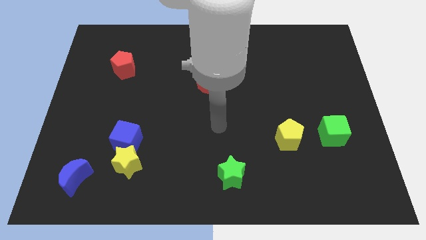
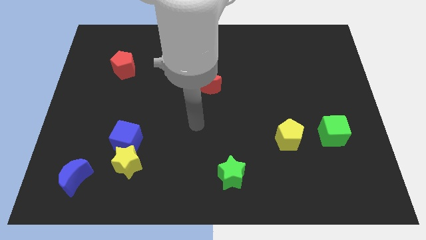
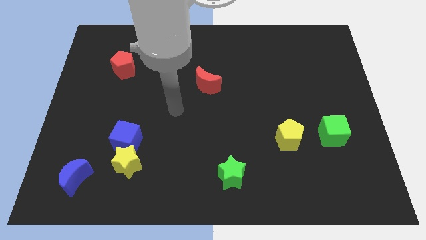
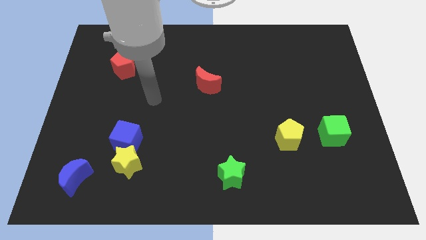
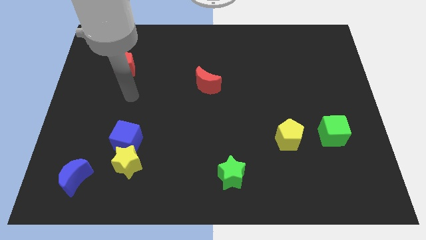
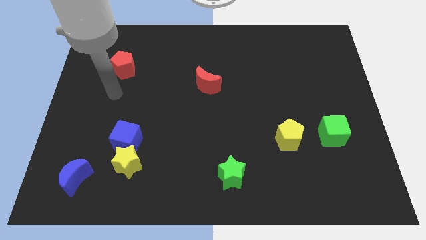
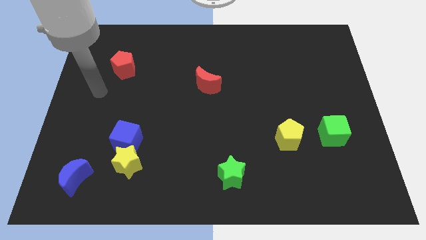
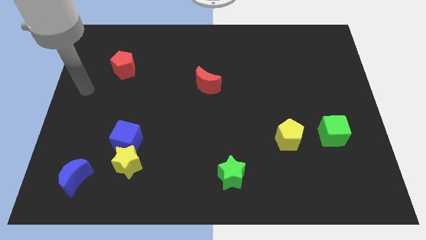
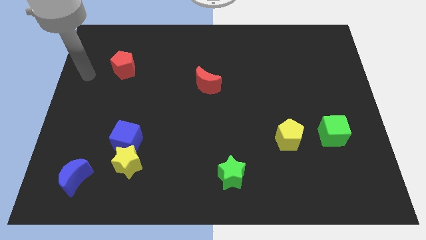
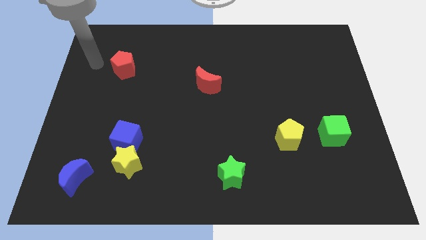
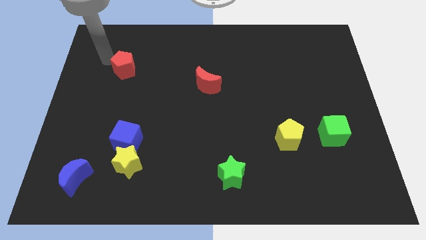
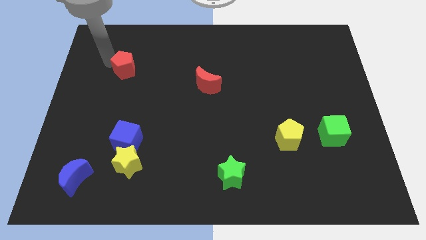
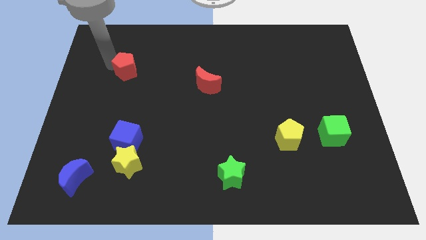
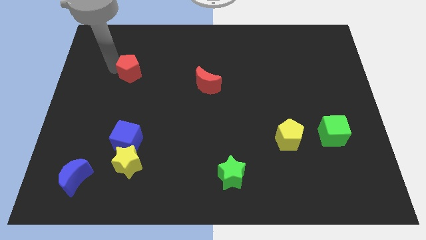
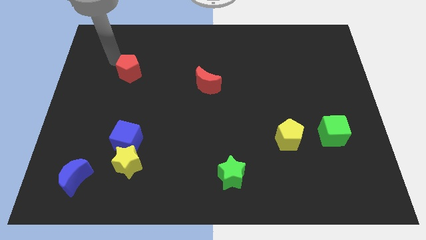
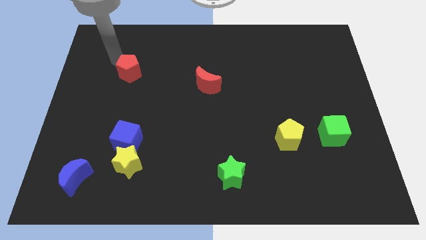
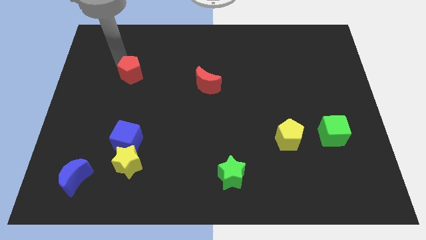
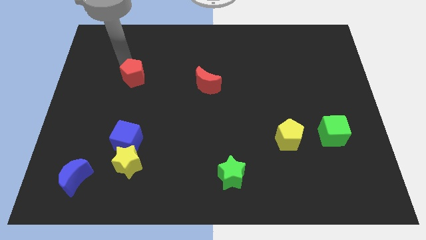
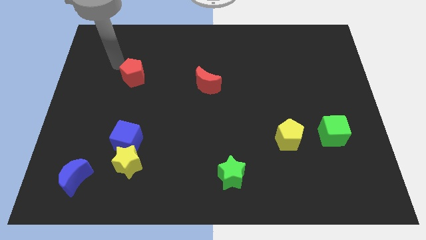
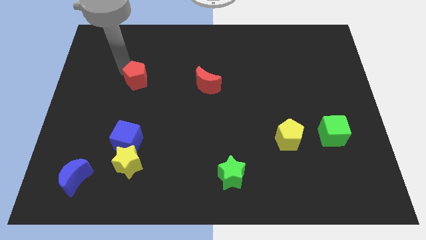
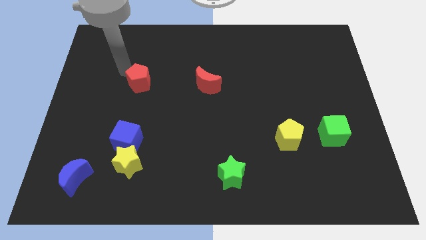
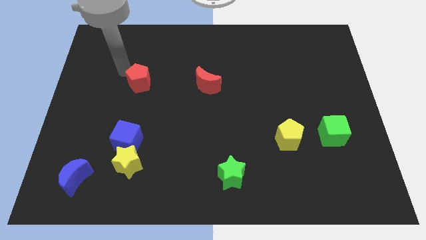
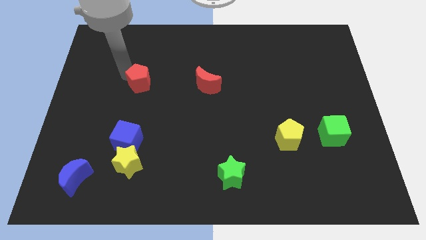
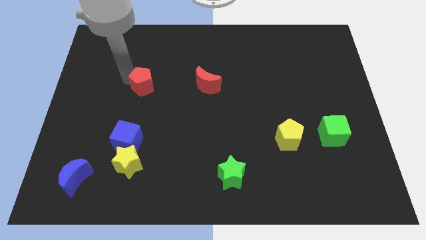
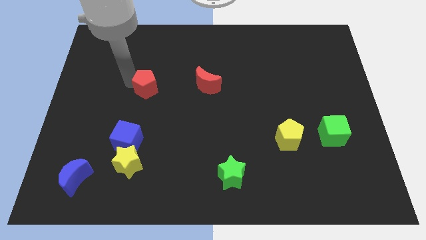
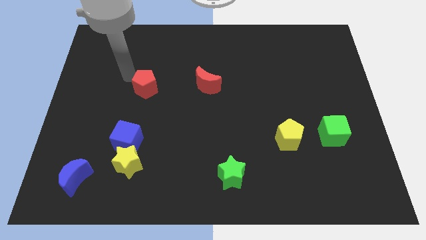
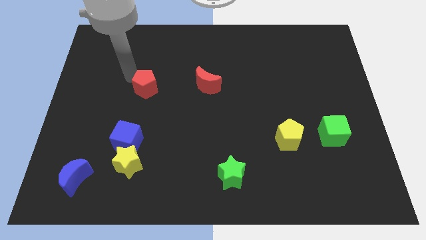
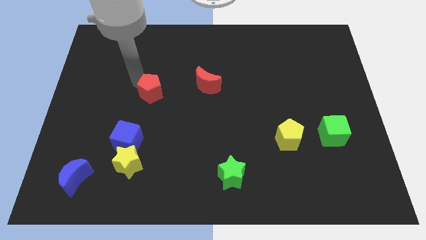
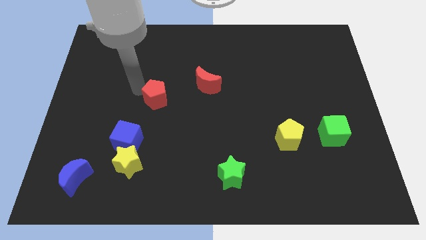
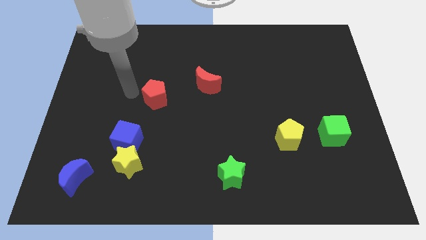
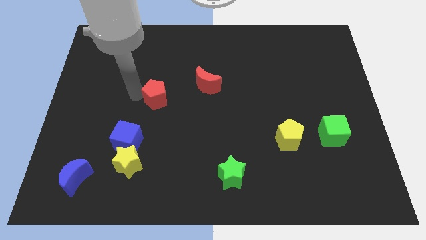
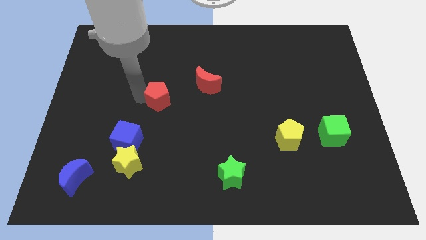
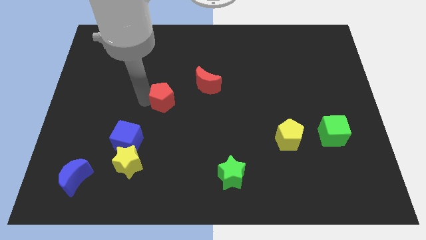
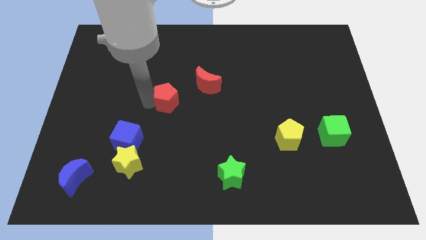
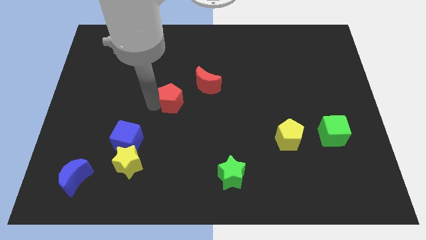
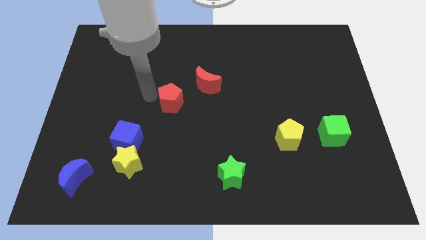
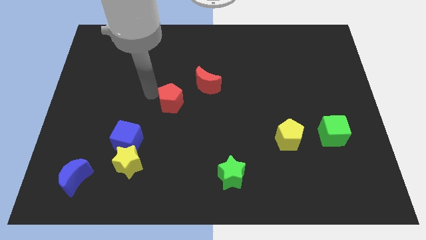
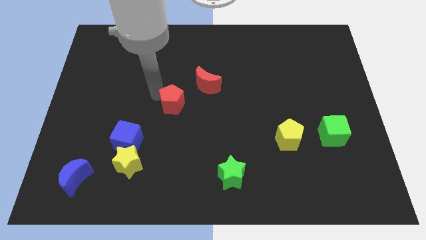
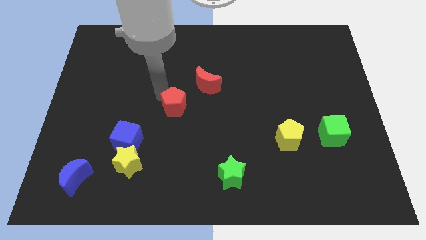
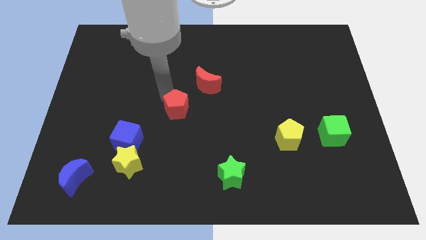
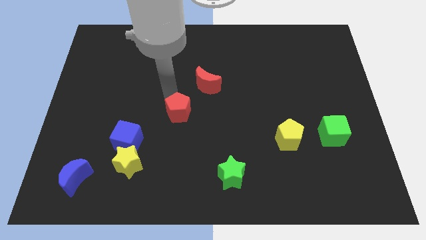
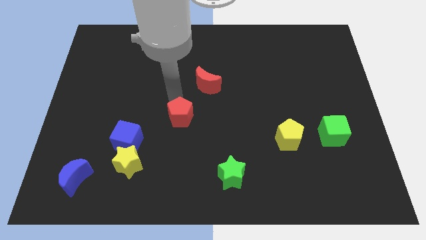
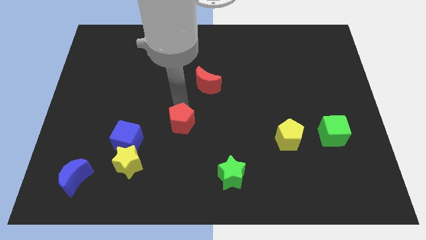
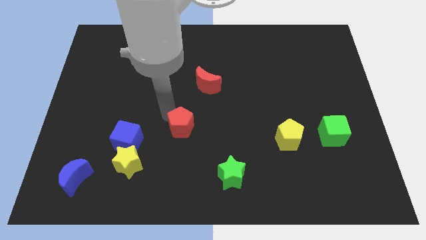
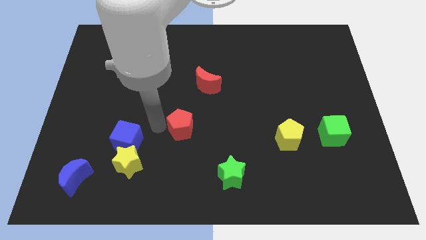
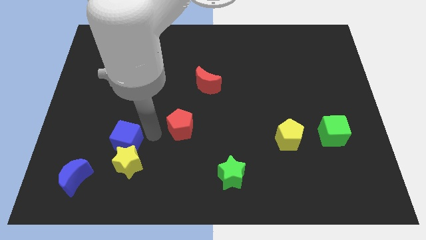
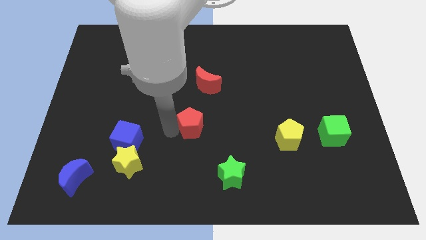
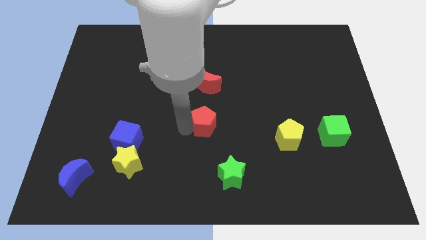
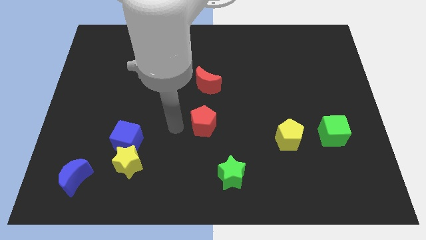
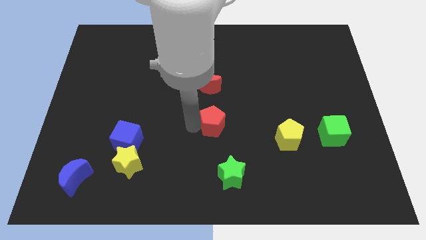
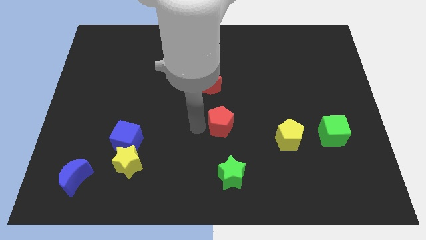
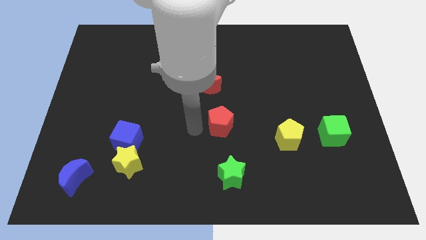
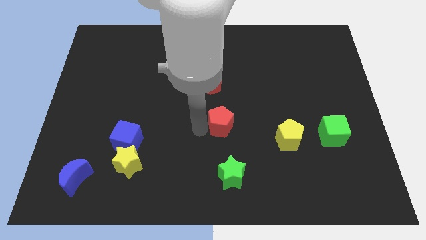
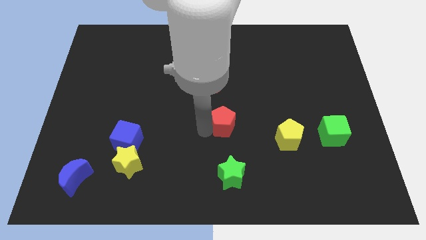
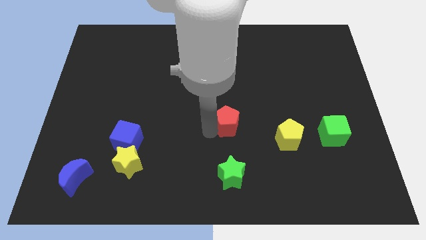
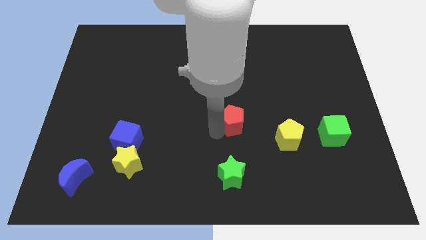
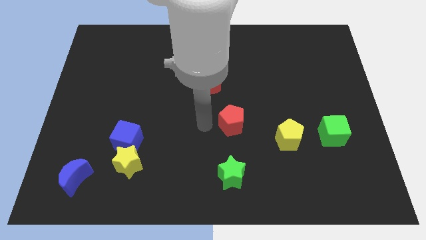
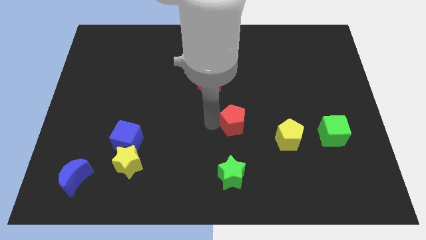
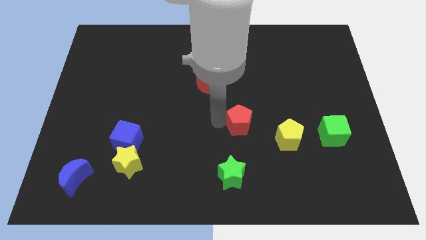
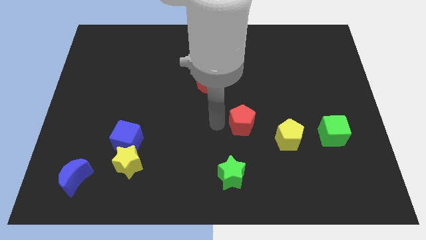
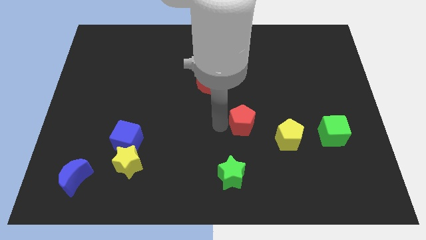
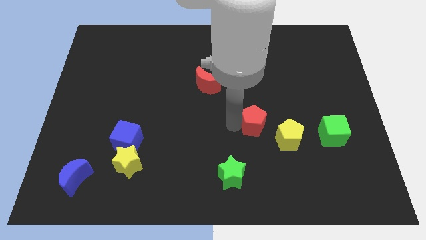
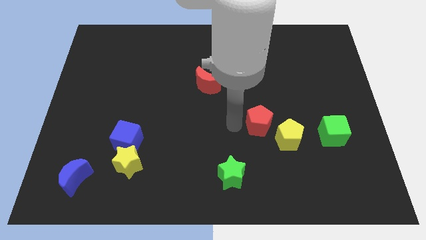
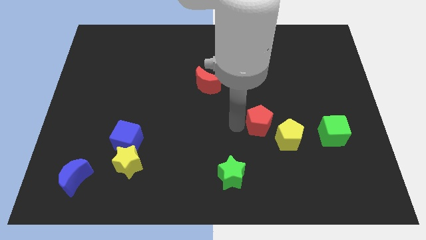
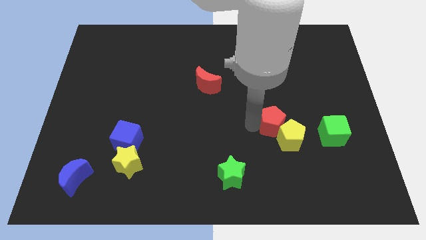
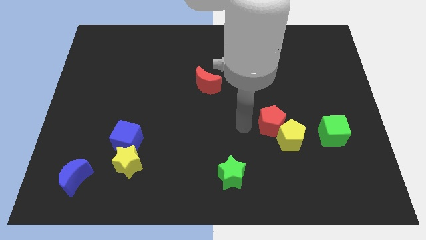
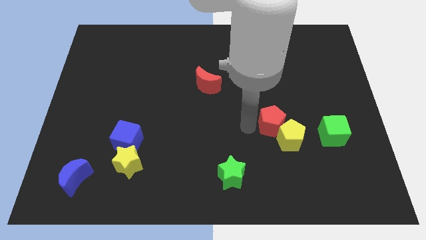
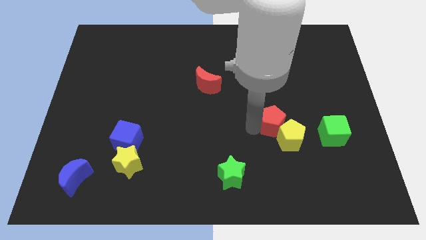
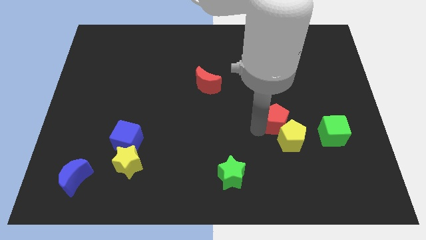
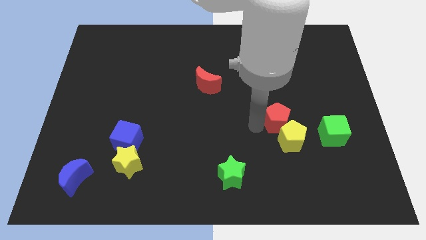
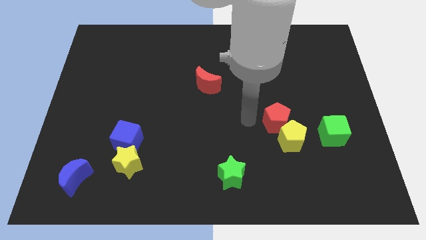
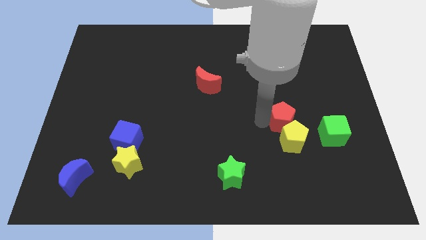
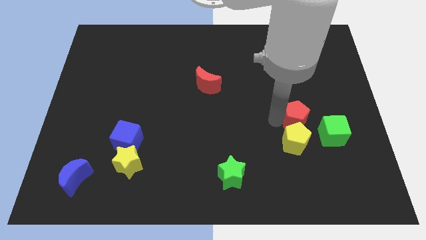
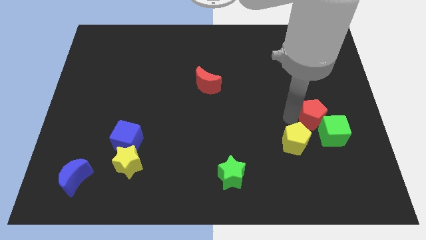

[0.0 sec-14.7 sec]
move the red pentagon to the green cube

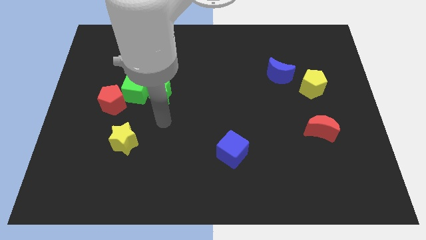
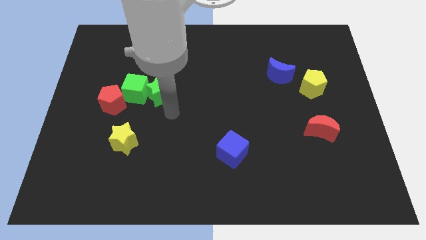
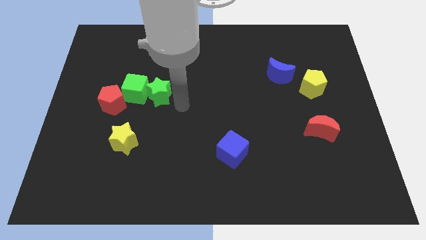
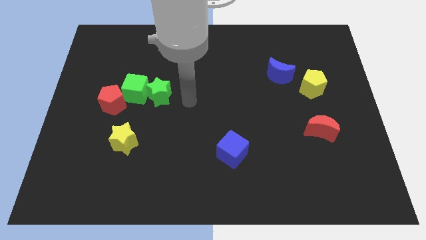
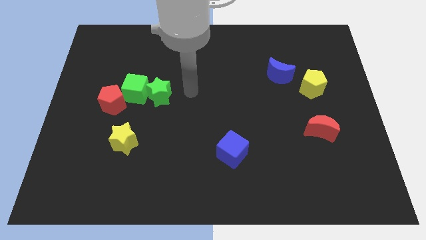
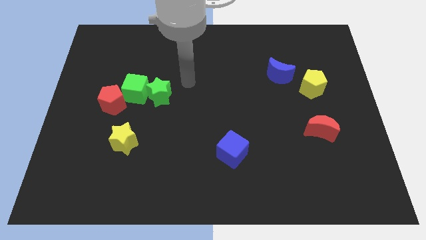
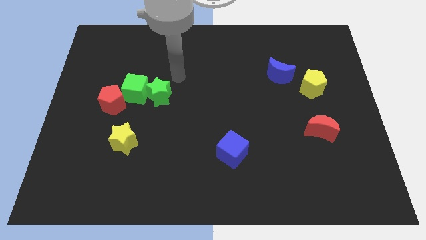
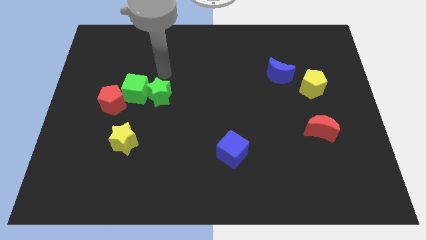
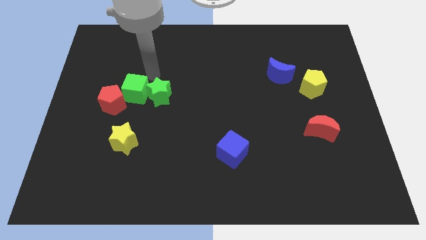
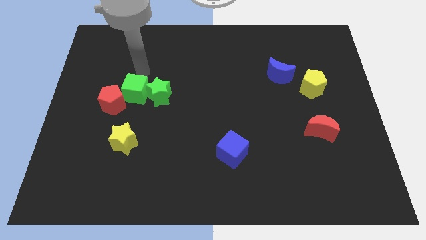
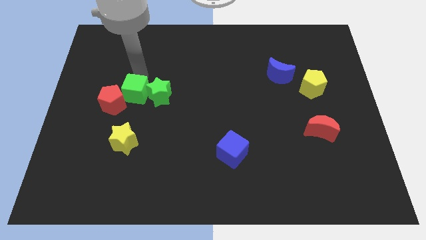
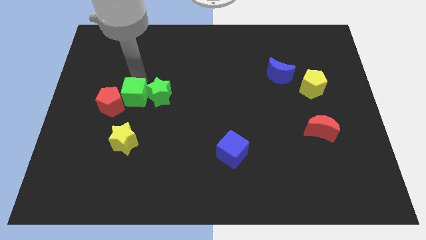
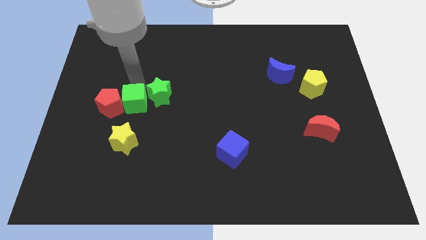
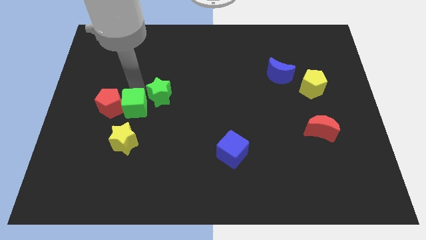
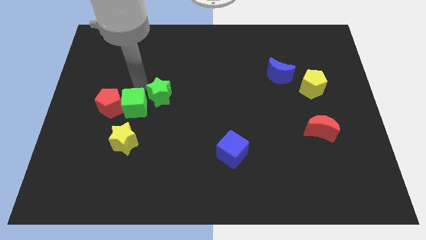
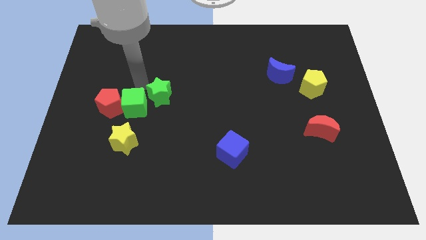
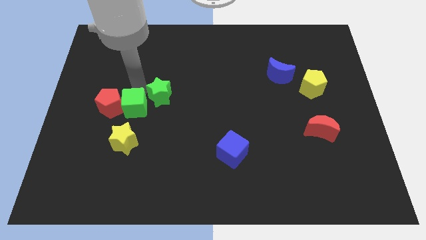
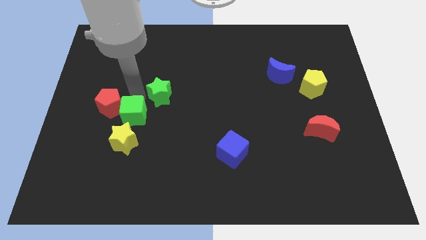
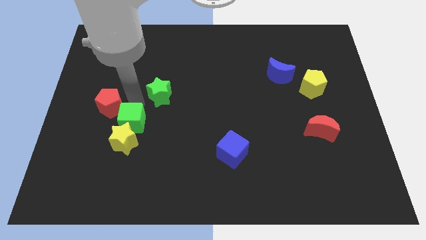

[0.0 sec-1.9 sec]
move the green cube close to the yellow star
